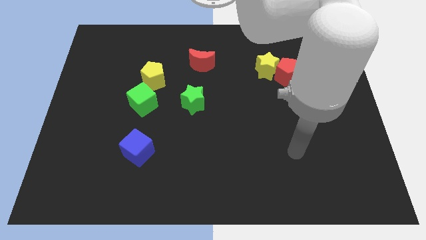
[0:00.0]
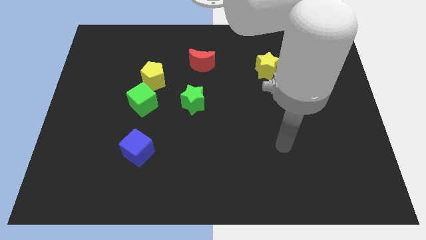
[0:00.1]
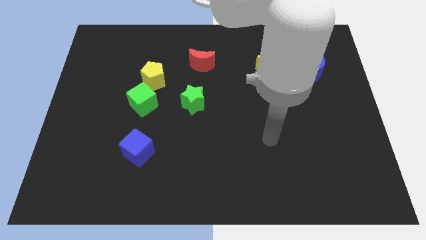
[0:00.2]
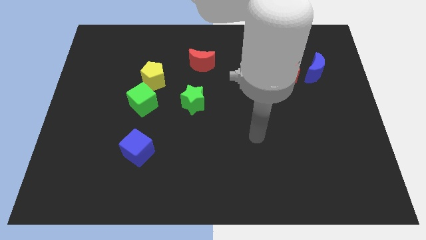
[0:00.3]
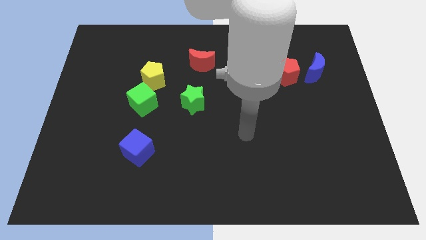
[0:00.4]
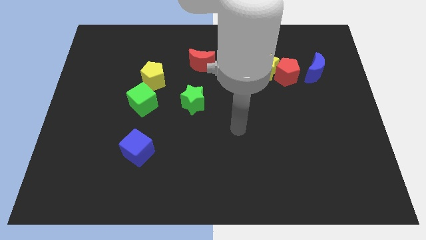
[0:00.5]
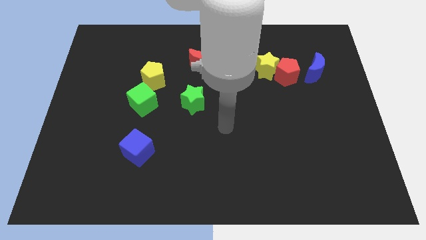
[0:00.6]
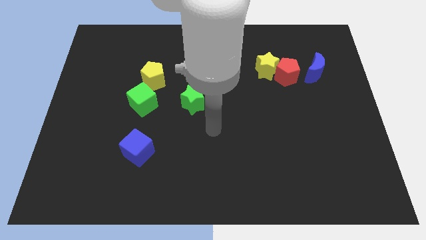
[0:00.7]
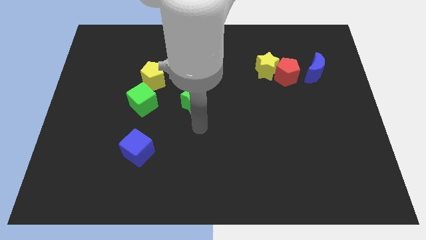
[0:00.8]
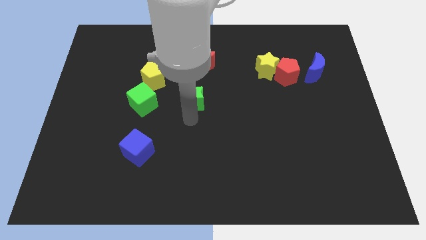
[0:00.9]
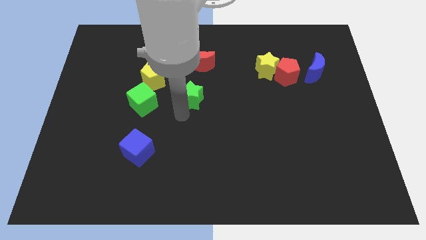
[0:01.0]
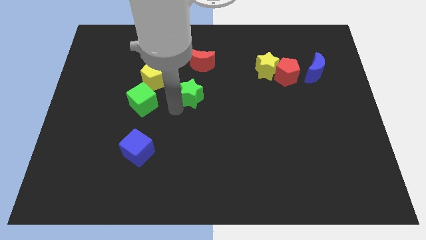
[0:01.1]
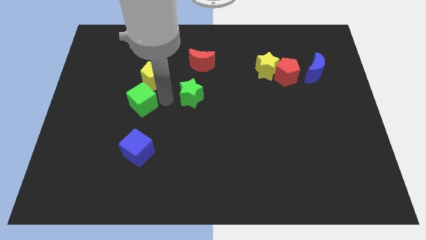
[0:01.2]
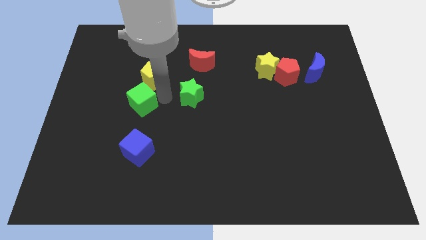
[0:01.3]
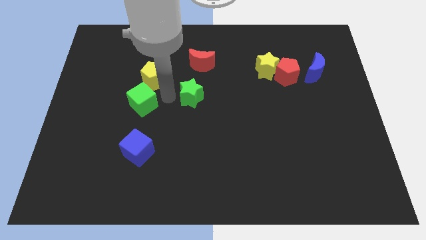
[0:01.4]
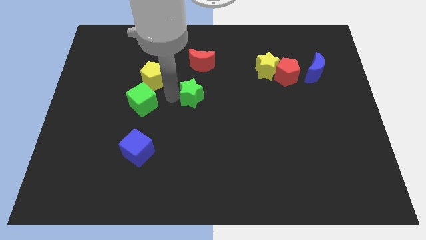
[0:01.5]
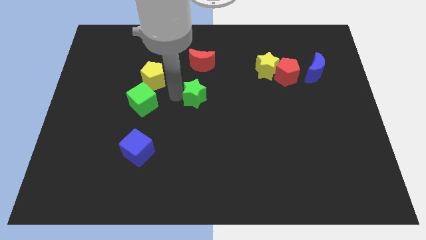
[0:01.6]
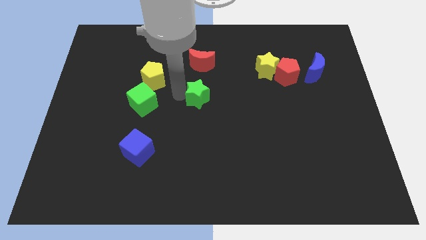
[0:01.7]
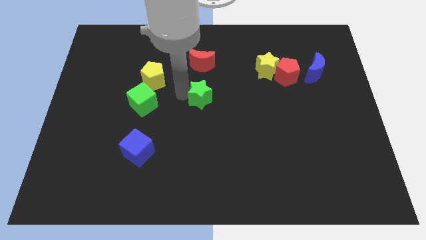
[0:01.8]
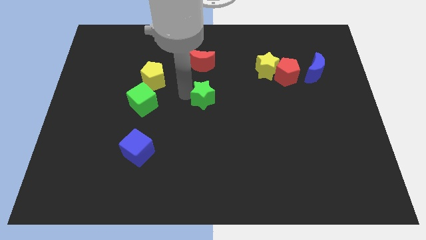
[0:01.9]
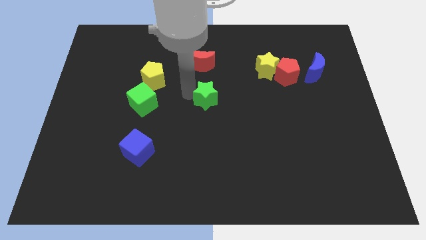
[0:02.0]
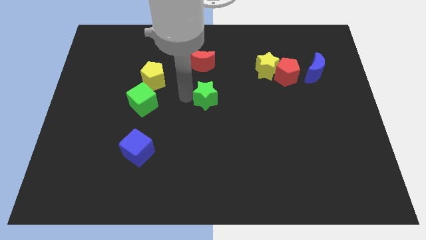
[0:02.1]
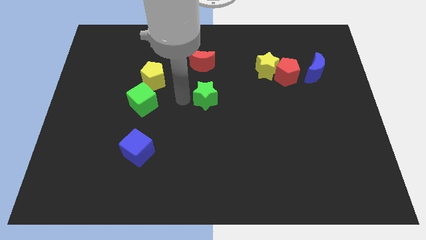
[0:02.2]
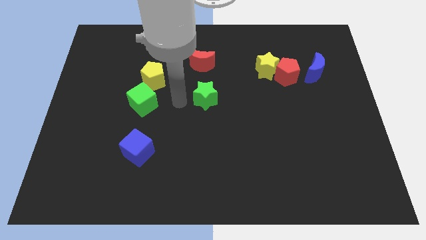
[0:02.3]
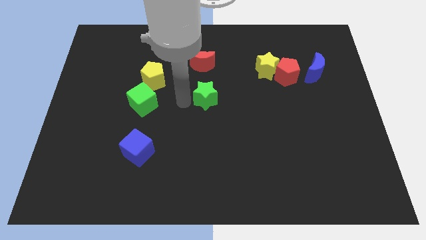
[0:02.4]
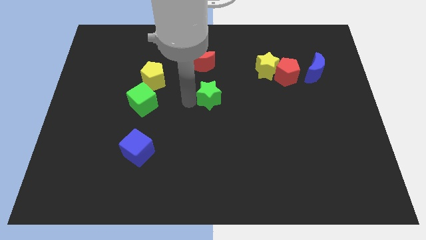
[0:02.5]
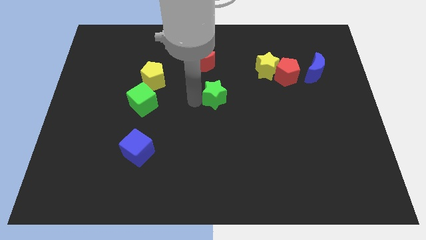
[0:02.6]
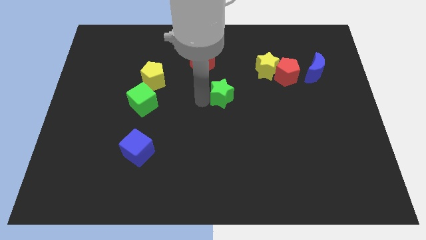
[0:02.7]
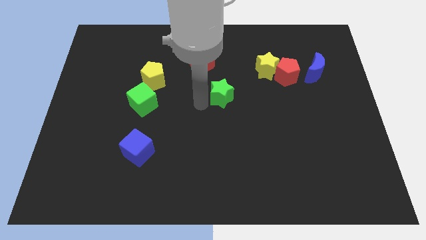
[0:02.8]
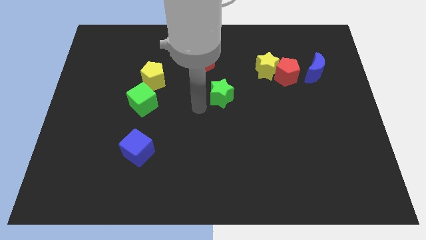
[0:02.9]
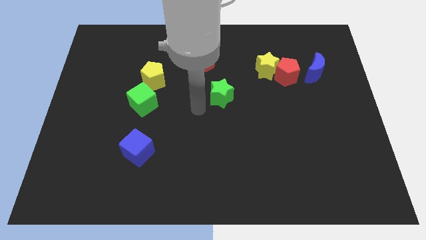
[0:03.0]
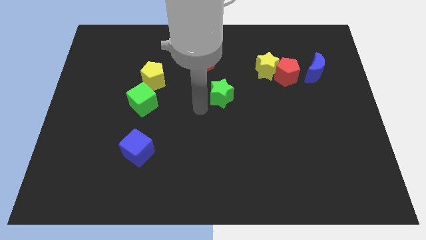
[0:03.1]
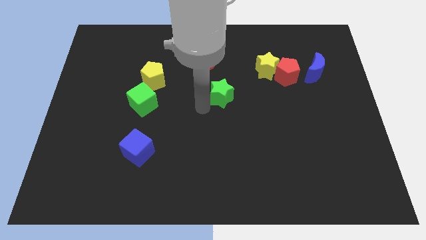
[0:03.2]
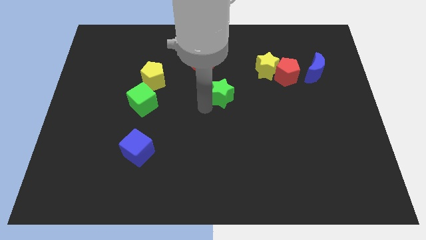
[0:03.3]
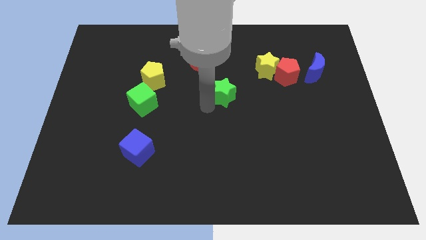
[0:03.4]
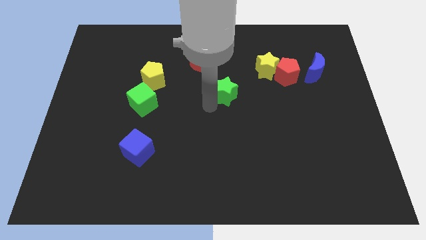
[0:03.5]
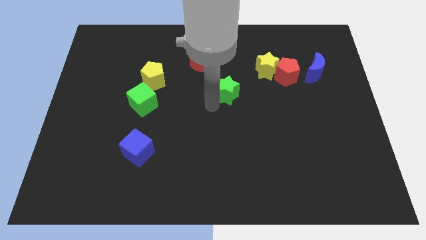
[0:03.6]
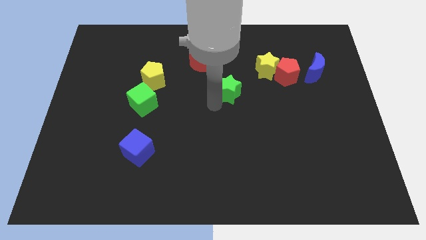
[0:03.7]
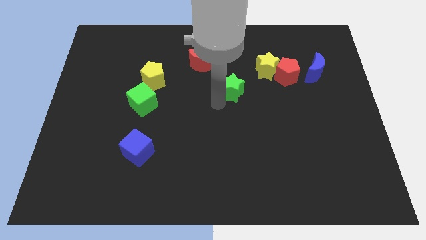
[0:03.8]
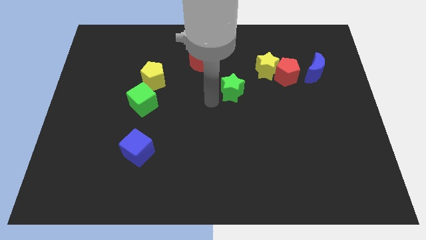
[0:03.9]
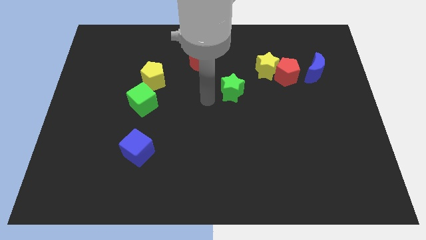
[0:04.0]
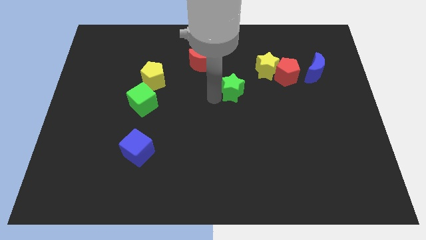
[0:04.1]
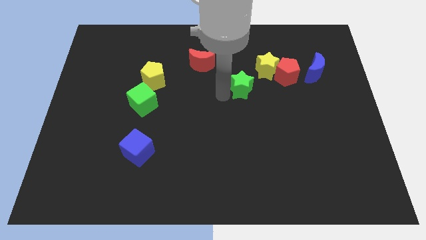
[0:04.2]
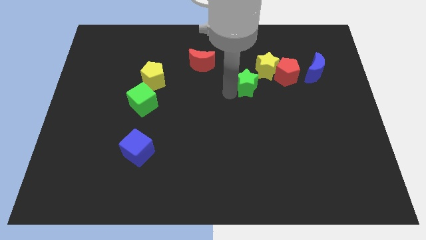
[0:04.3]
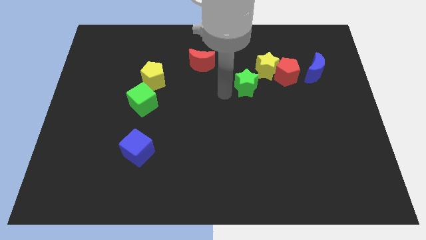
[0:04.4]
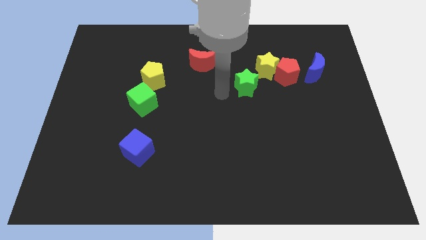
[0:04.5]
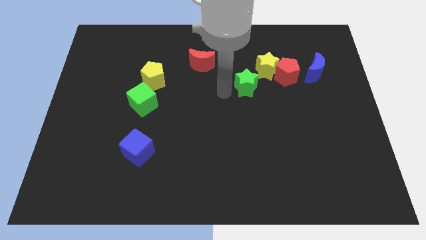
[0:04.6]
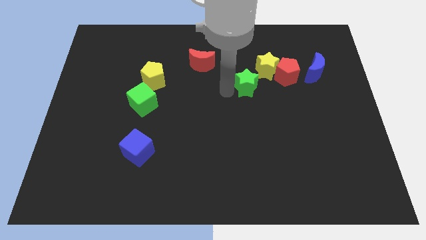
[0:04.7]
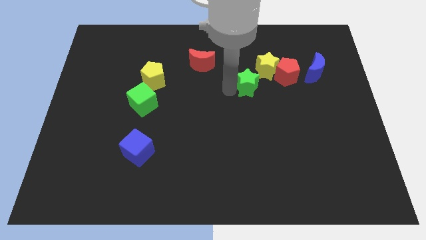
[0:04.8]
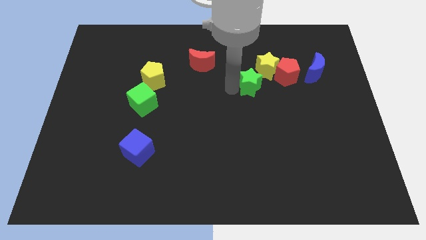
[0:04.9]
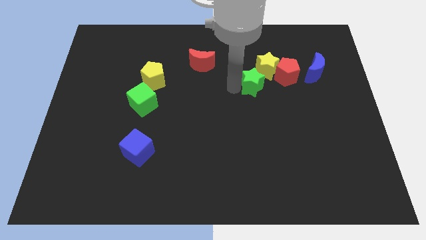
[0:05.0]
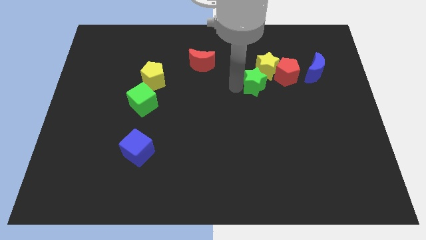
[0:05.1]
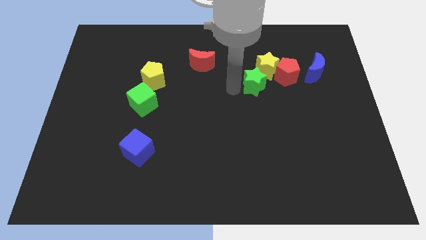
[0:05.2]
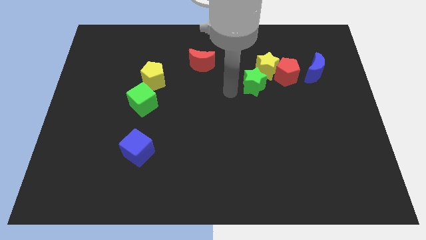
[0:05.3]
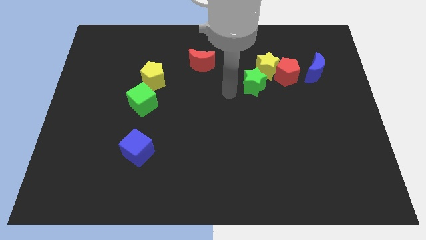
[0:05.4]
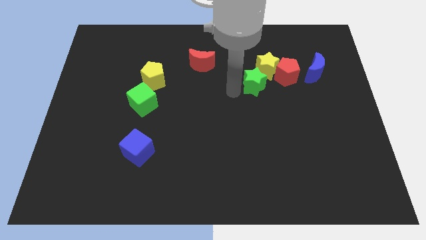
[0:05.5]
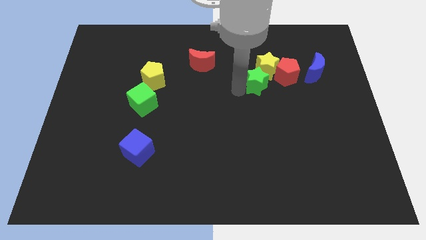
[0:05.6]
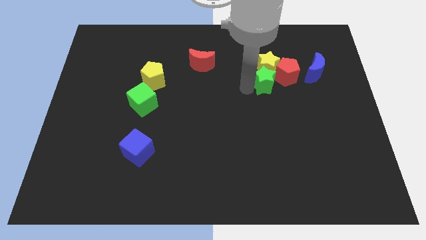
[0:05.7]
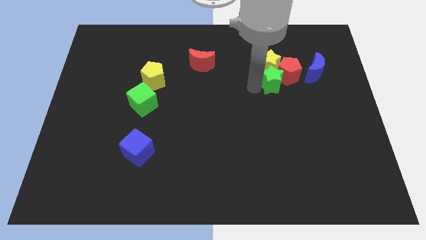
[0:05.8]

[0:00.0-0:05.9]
move the green star to the red pentagon

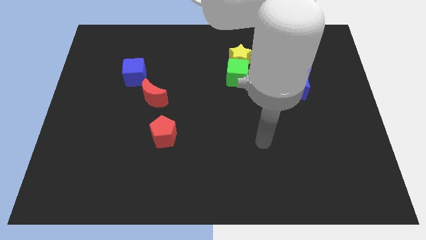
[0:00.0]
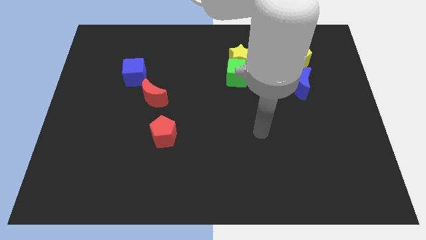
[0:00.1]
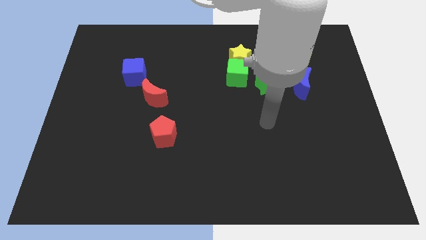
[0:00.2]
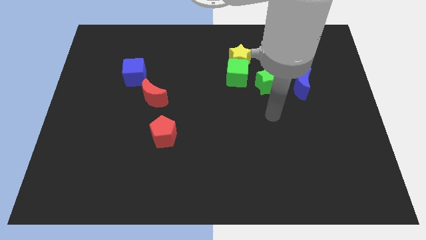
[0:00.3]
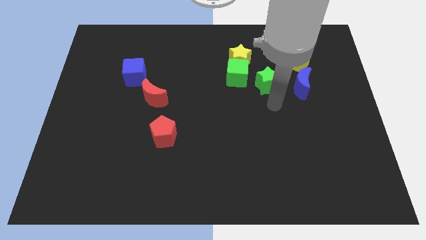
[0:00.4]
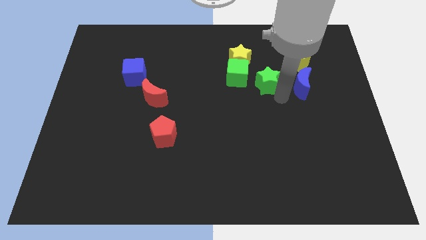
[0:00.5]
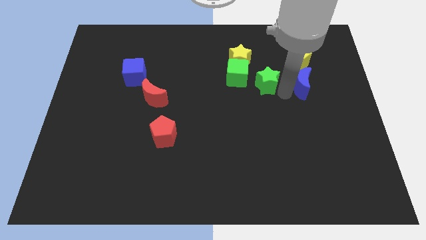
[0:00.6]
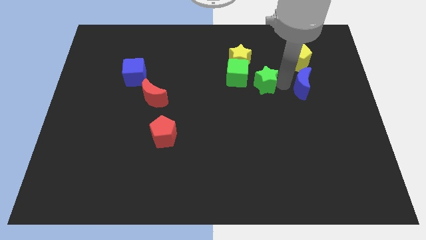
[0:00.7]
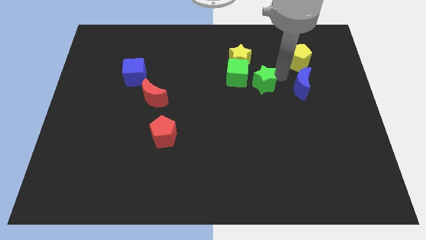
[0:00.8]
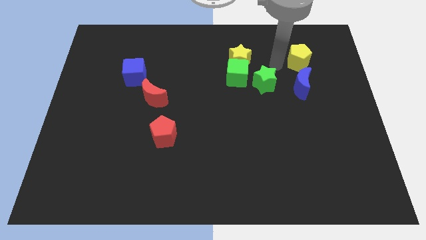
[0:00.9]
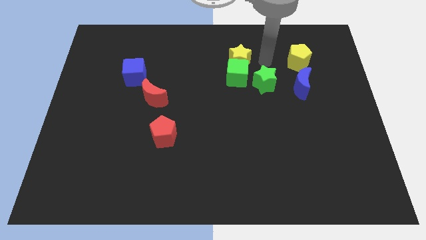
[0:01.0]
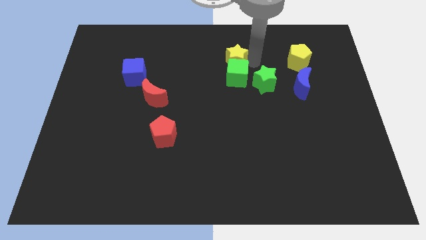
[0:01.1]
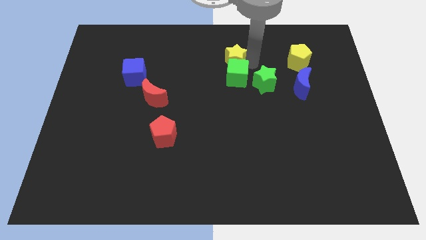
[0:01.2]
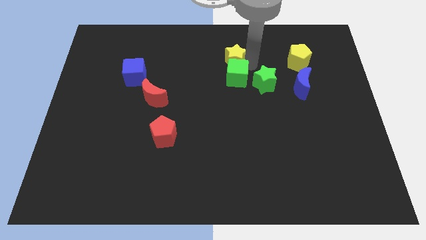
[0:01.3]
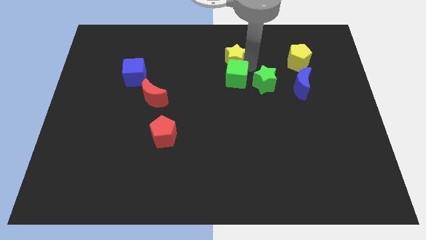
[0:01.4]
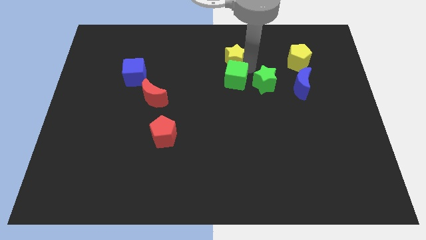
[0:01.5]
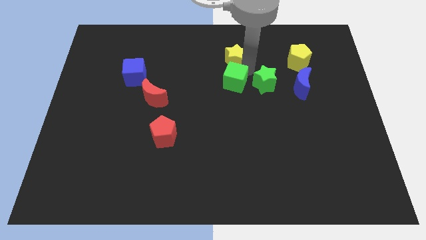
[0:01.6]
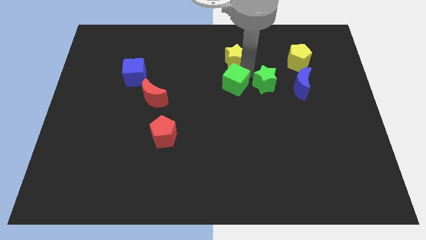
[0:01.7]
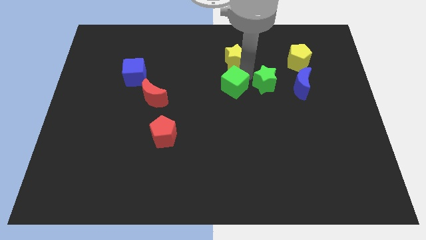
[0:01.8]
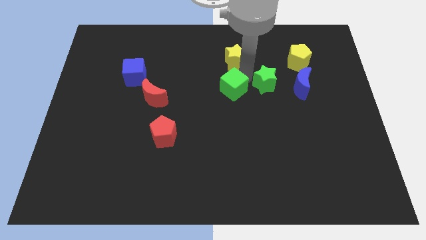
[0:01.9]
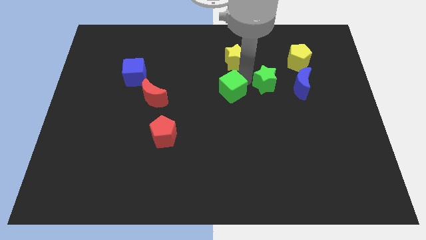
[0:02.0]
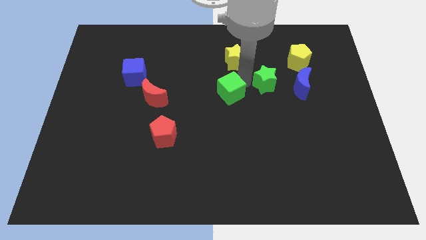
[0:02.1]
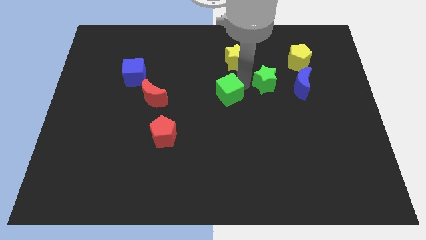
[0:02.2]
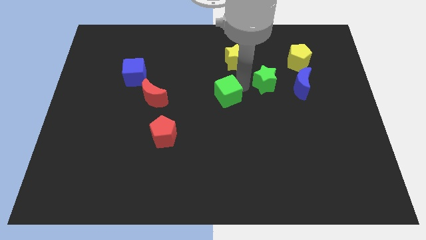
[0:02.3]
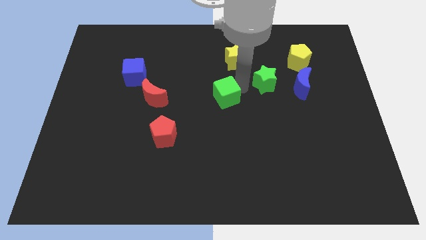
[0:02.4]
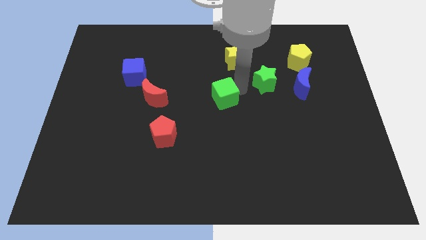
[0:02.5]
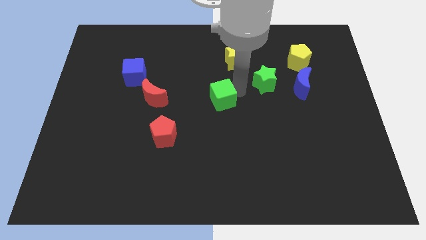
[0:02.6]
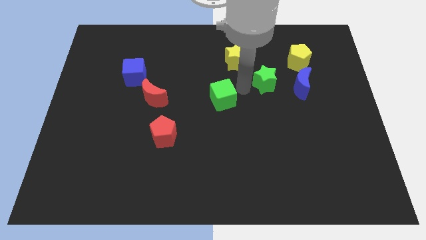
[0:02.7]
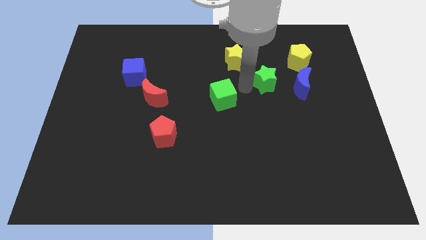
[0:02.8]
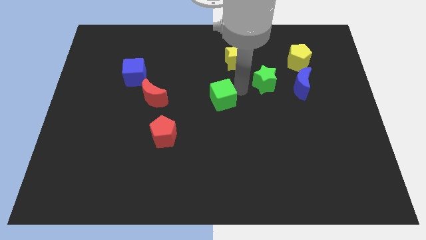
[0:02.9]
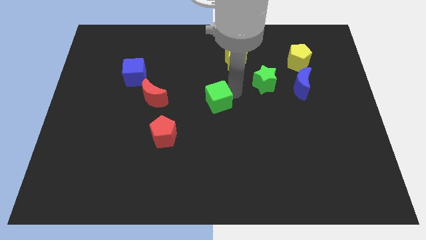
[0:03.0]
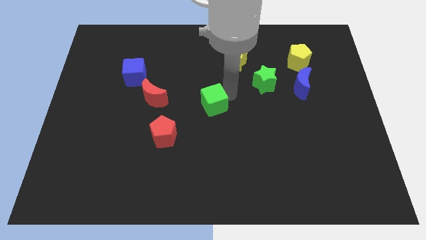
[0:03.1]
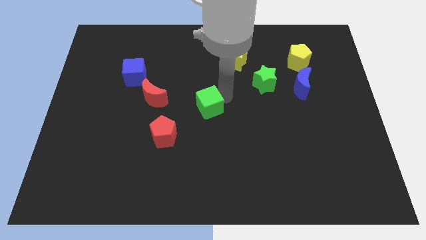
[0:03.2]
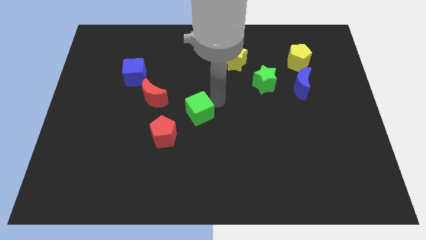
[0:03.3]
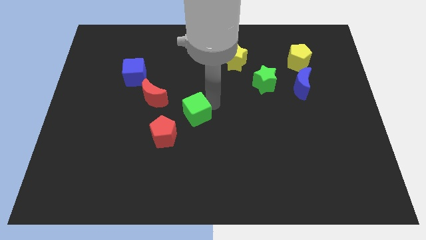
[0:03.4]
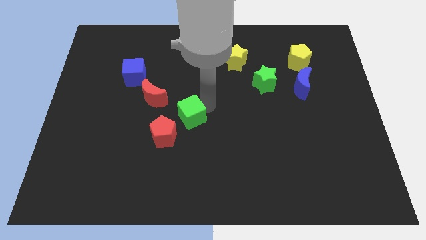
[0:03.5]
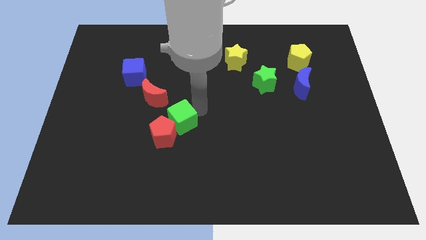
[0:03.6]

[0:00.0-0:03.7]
put the green cube close to the red pentagon
